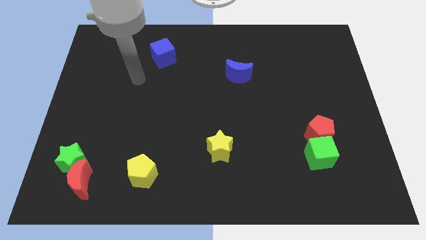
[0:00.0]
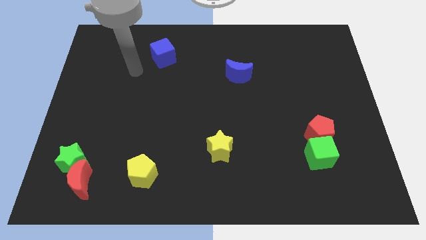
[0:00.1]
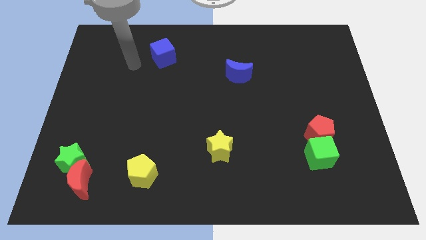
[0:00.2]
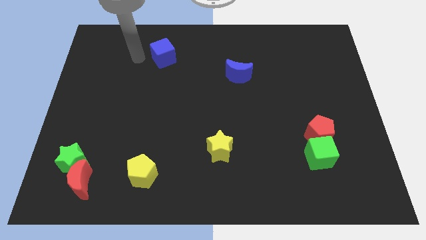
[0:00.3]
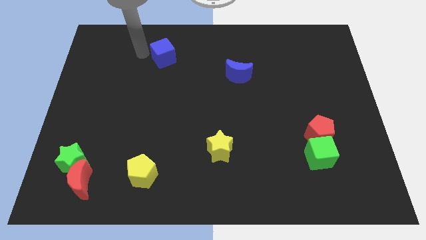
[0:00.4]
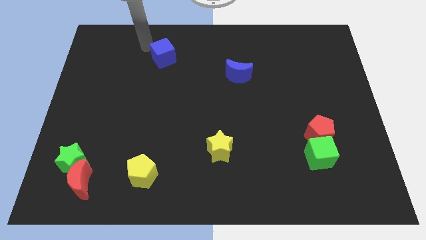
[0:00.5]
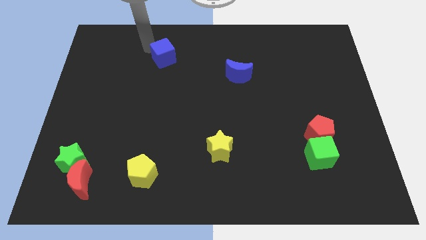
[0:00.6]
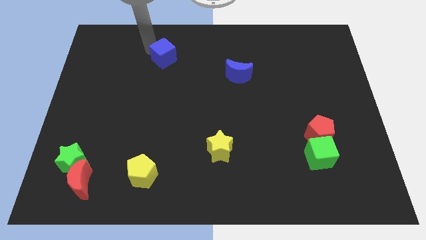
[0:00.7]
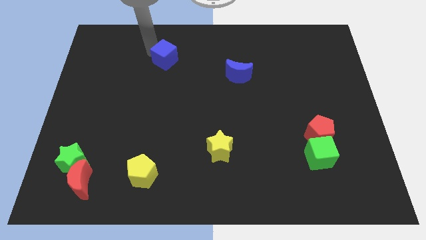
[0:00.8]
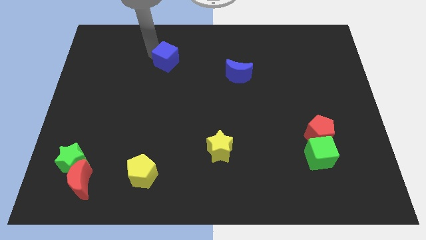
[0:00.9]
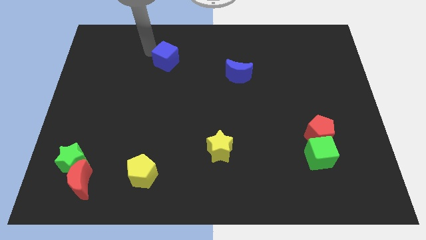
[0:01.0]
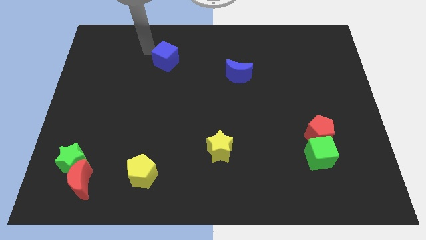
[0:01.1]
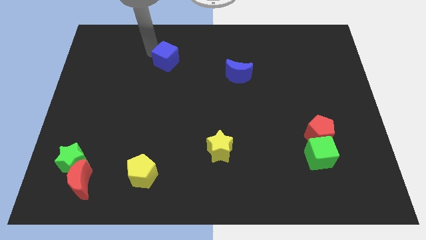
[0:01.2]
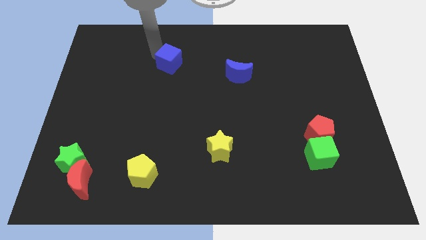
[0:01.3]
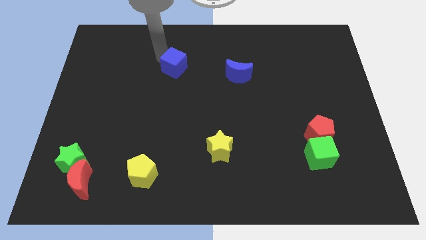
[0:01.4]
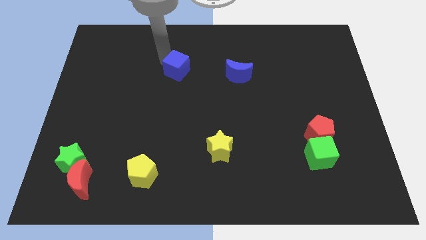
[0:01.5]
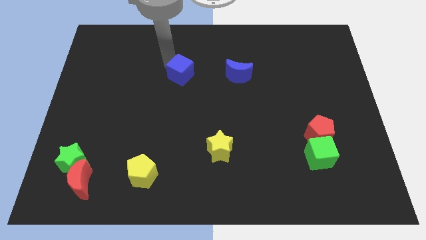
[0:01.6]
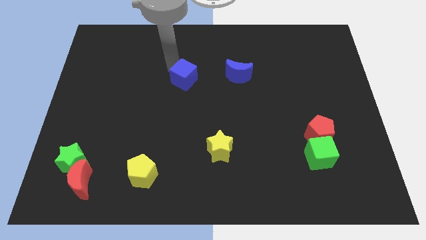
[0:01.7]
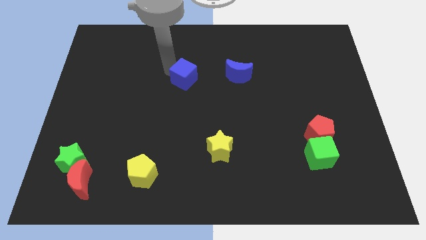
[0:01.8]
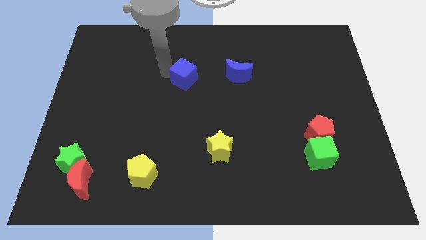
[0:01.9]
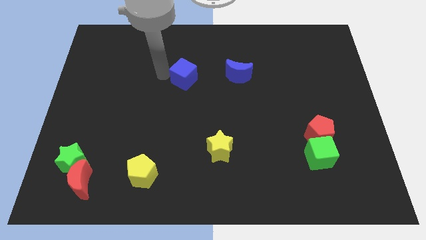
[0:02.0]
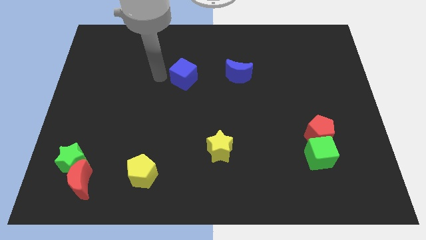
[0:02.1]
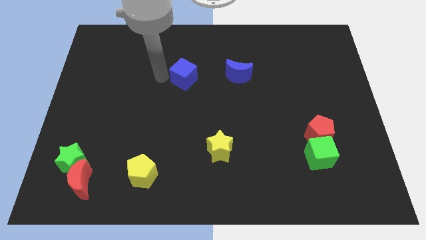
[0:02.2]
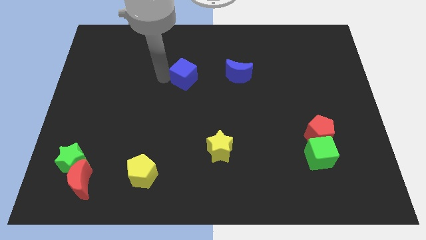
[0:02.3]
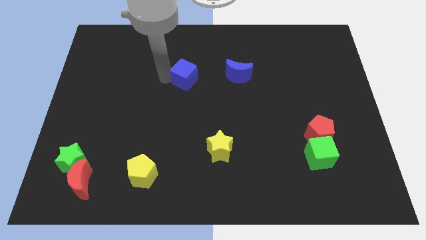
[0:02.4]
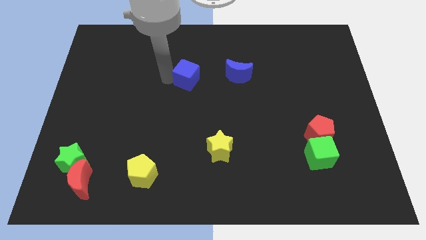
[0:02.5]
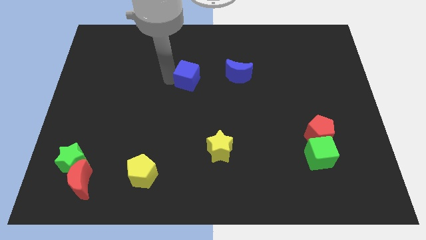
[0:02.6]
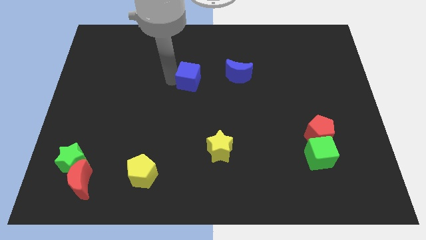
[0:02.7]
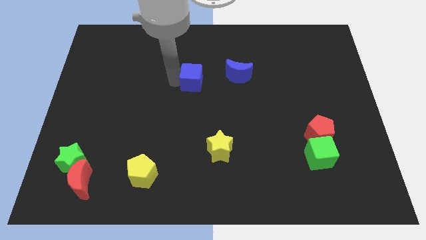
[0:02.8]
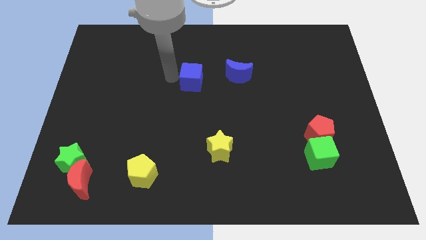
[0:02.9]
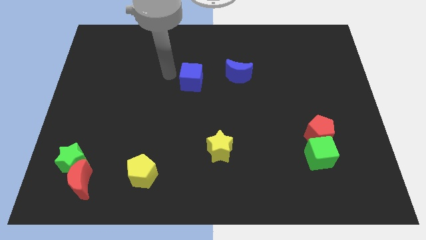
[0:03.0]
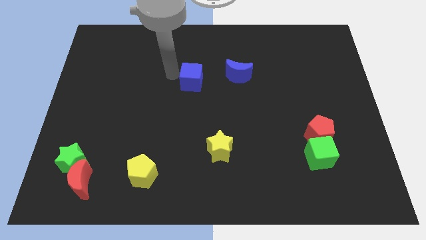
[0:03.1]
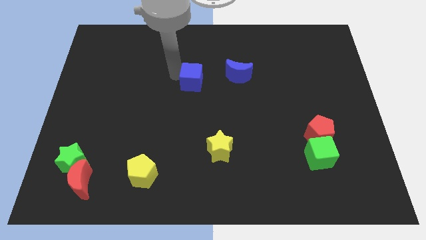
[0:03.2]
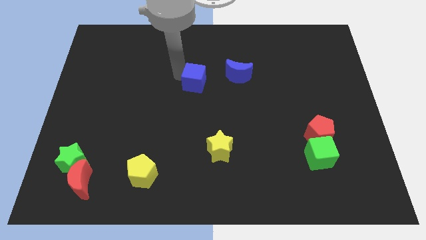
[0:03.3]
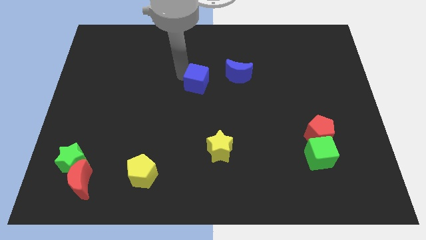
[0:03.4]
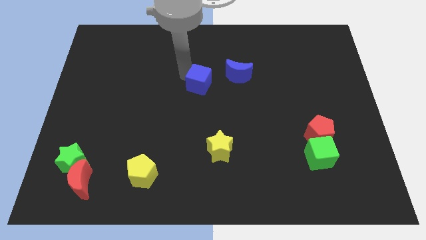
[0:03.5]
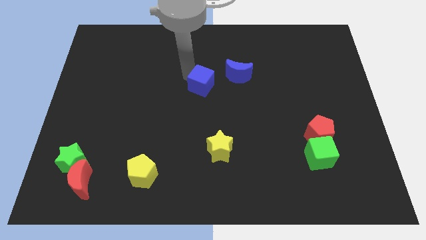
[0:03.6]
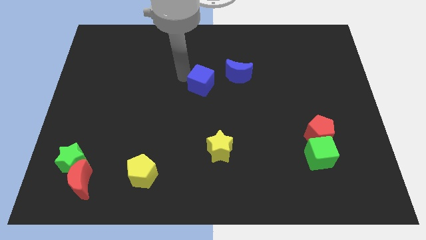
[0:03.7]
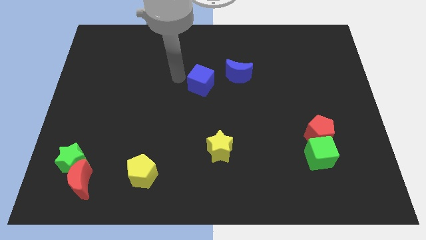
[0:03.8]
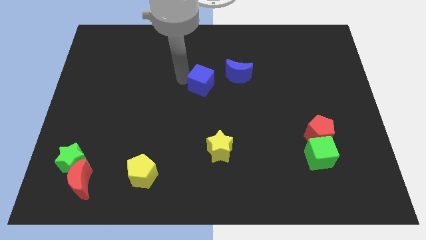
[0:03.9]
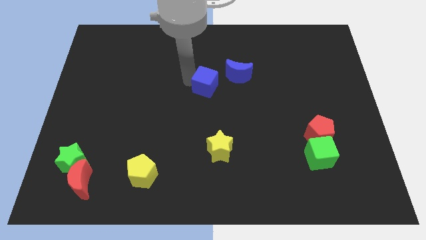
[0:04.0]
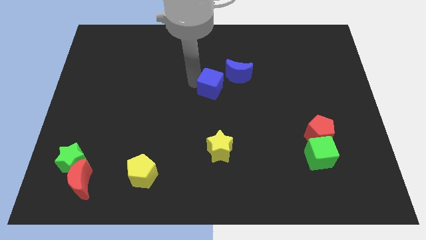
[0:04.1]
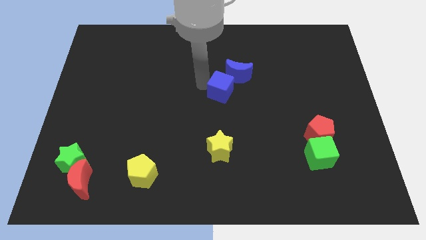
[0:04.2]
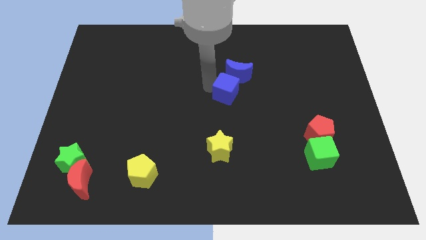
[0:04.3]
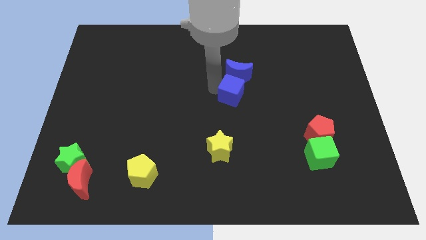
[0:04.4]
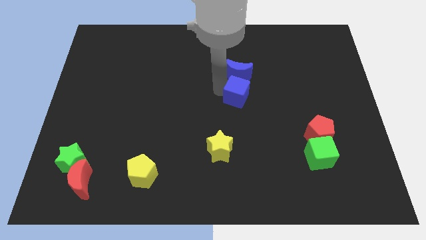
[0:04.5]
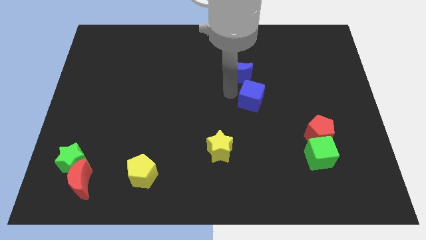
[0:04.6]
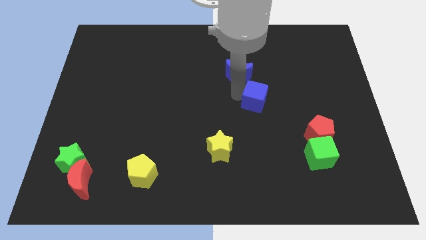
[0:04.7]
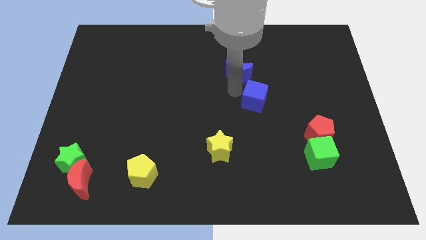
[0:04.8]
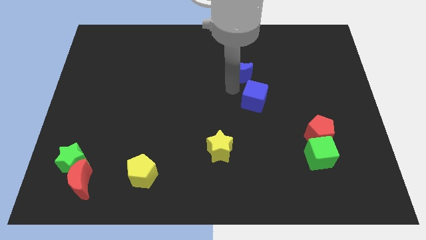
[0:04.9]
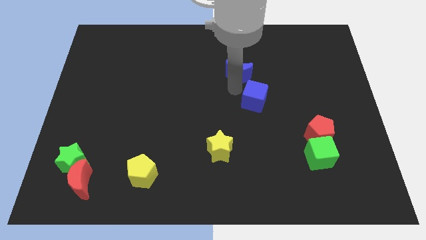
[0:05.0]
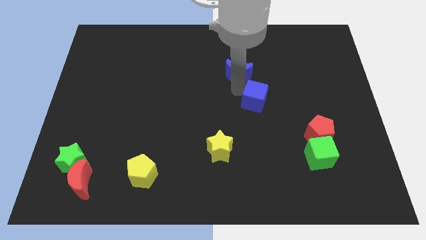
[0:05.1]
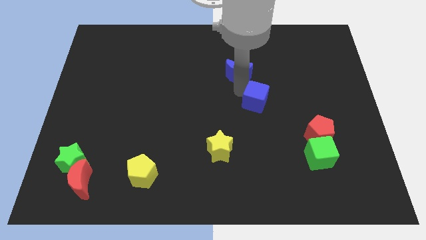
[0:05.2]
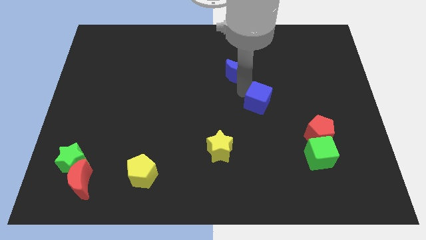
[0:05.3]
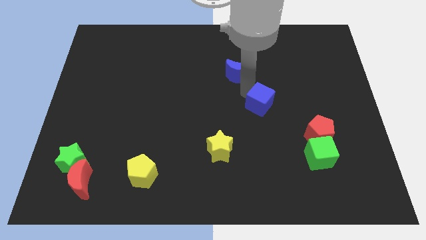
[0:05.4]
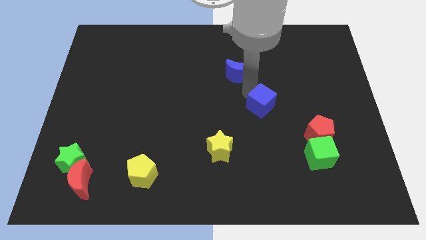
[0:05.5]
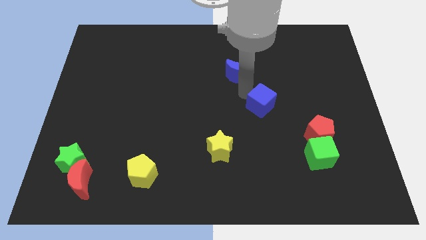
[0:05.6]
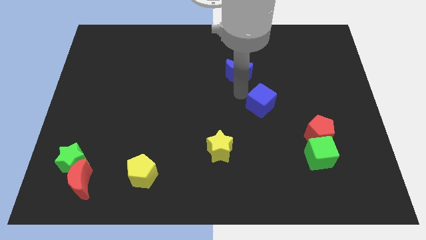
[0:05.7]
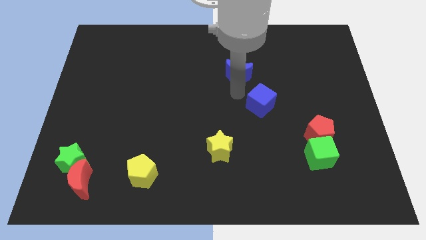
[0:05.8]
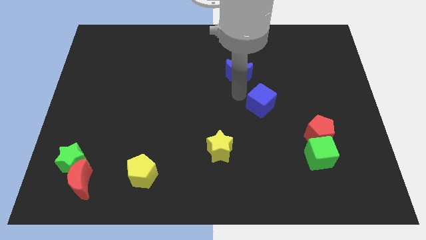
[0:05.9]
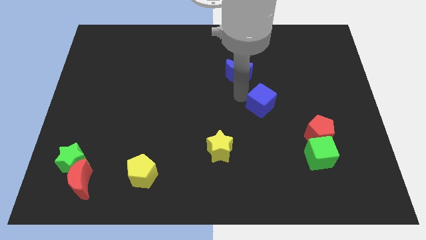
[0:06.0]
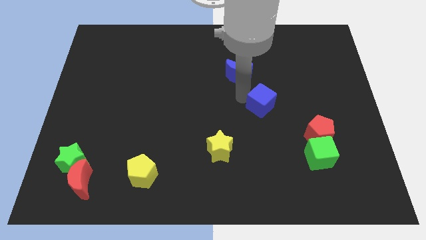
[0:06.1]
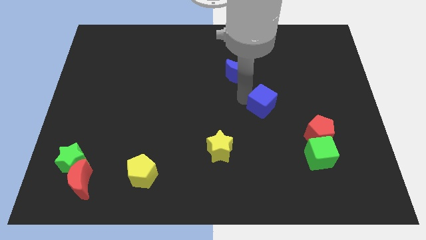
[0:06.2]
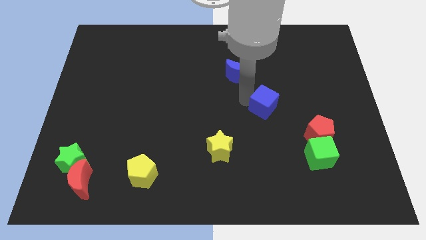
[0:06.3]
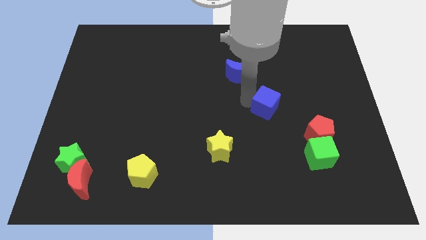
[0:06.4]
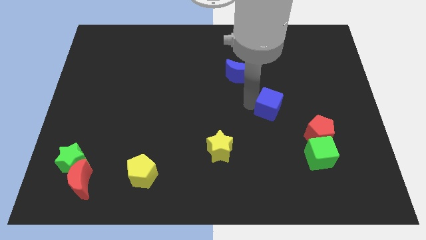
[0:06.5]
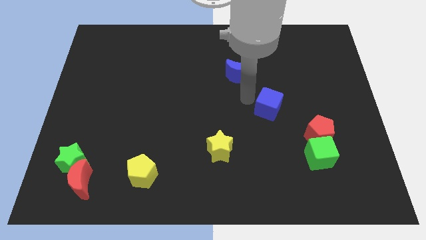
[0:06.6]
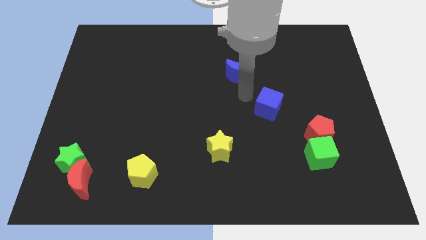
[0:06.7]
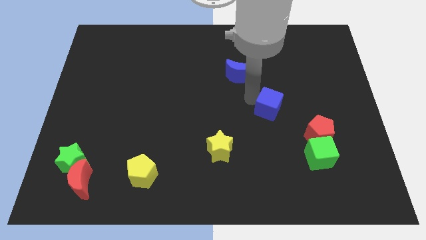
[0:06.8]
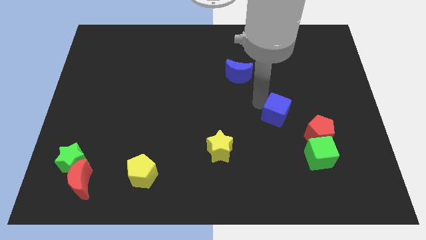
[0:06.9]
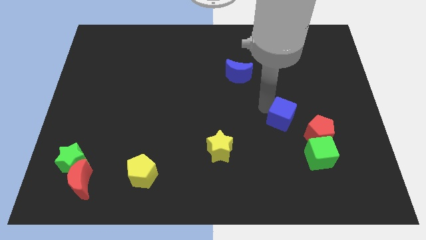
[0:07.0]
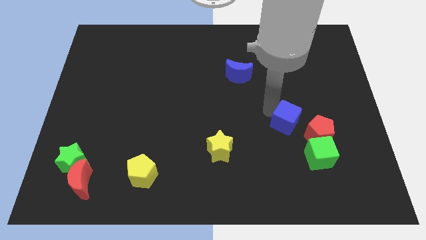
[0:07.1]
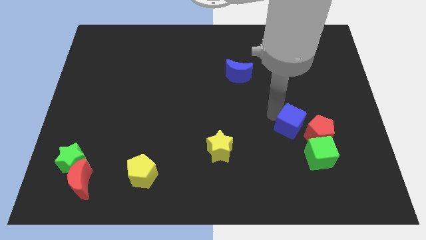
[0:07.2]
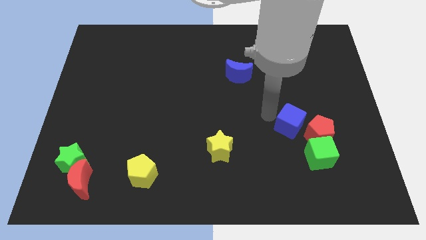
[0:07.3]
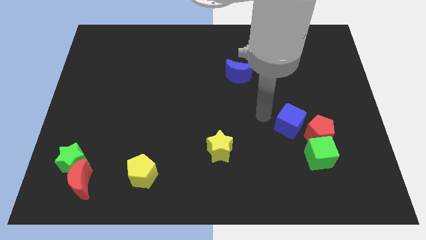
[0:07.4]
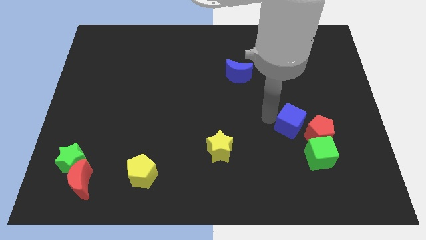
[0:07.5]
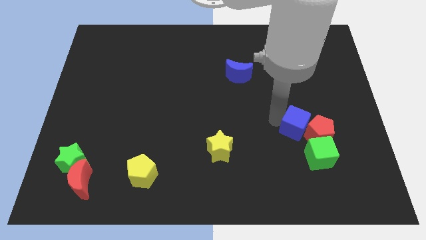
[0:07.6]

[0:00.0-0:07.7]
push the blue cube next to the red pentagon
